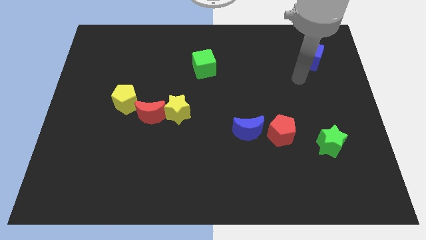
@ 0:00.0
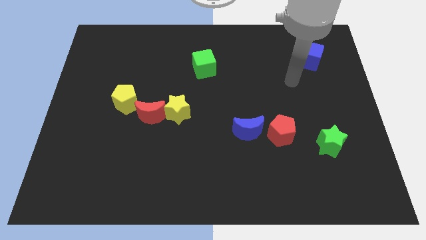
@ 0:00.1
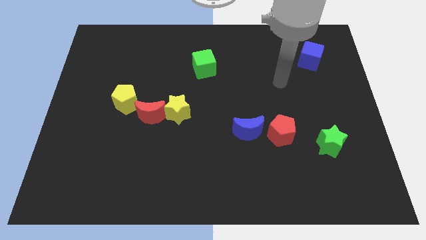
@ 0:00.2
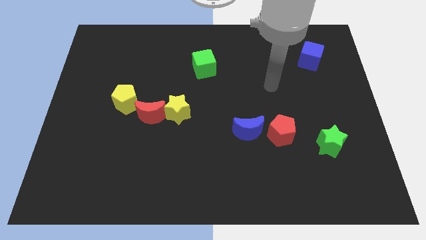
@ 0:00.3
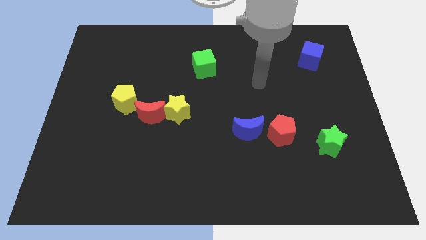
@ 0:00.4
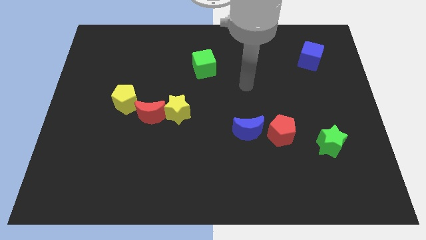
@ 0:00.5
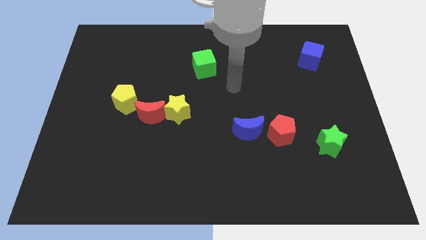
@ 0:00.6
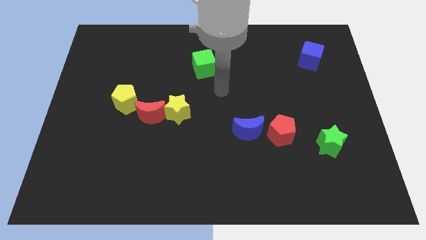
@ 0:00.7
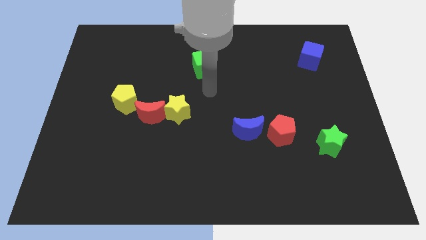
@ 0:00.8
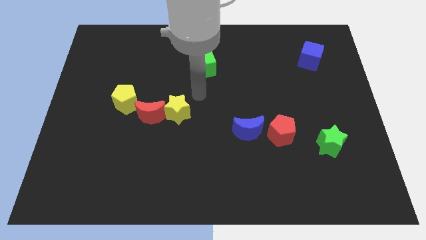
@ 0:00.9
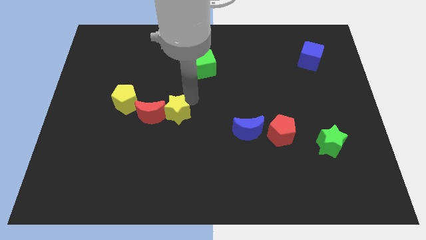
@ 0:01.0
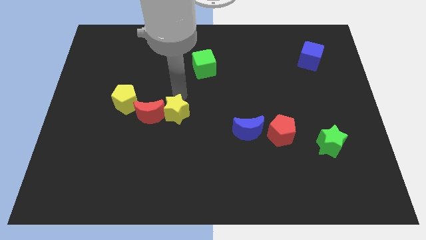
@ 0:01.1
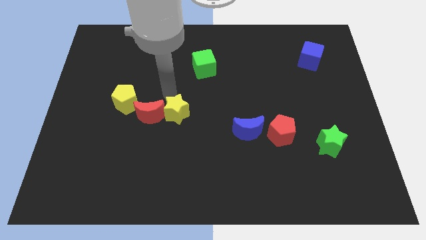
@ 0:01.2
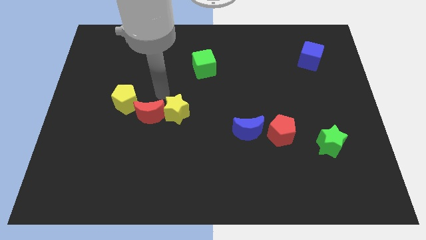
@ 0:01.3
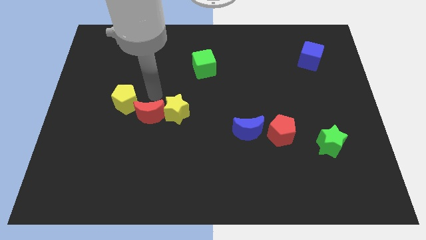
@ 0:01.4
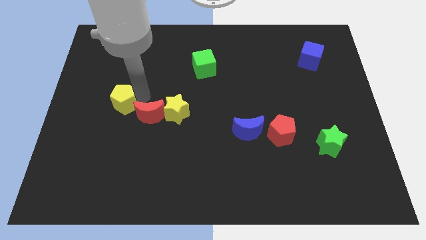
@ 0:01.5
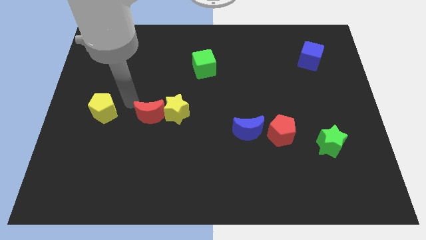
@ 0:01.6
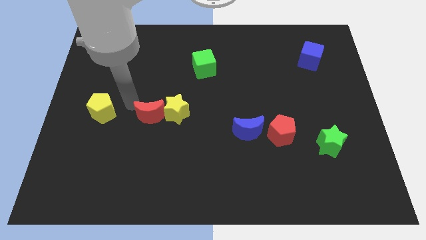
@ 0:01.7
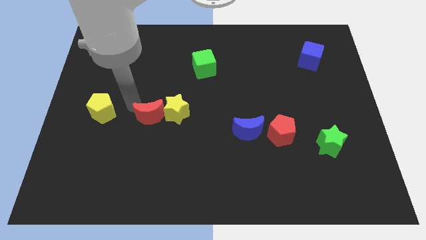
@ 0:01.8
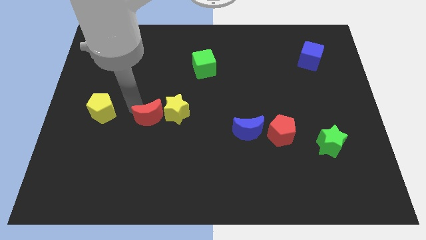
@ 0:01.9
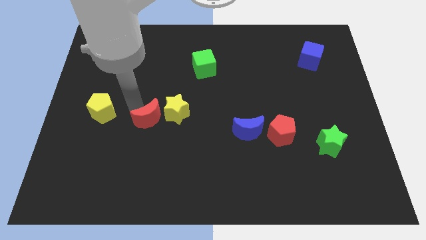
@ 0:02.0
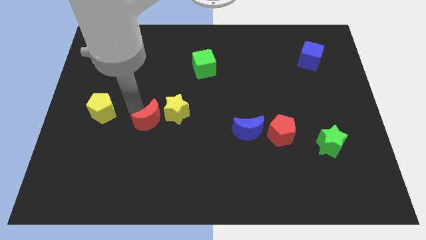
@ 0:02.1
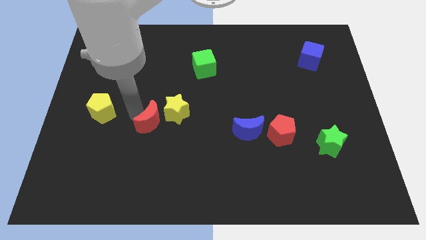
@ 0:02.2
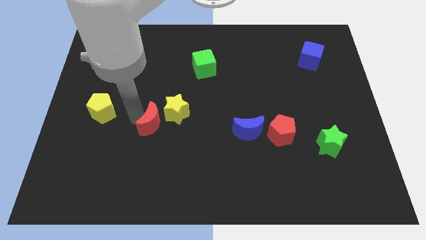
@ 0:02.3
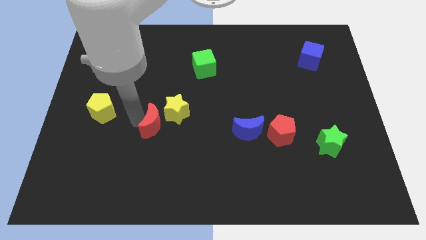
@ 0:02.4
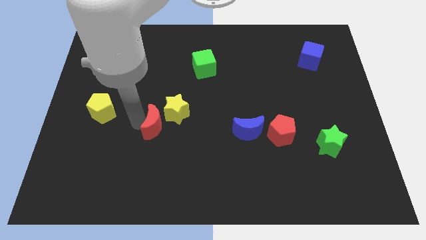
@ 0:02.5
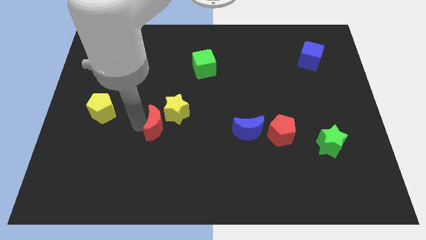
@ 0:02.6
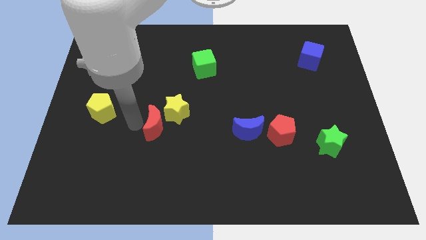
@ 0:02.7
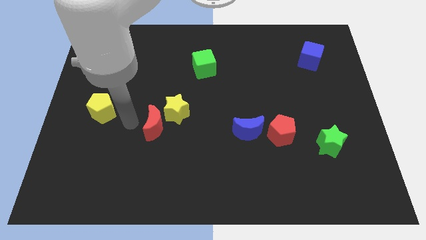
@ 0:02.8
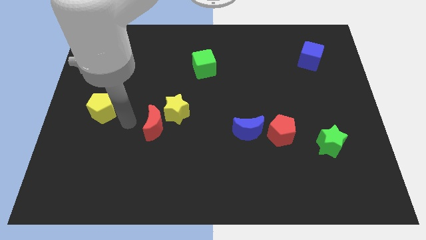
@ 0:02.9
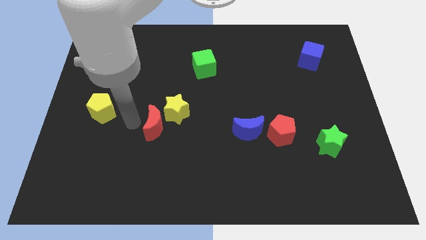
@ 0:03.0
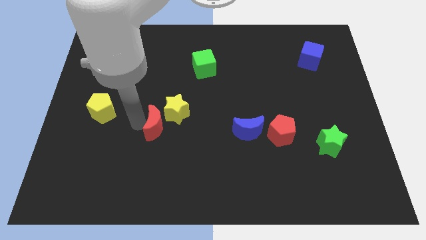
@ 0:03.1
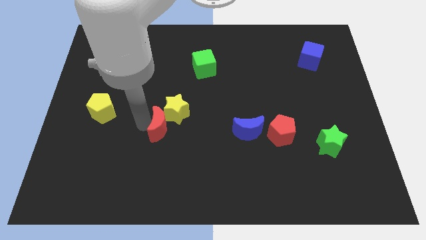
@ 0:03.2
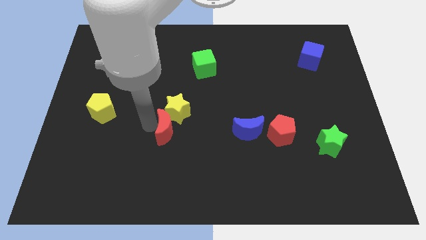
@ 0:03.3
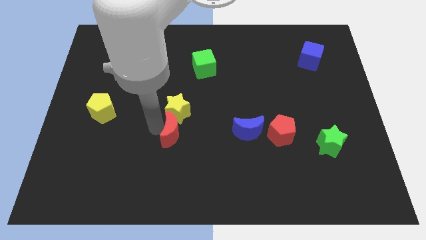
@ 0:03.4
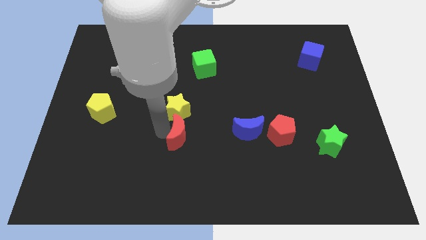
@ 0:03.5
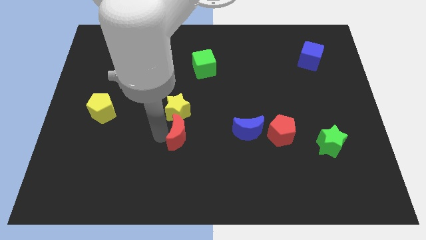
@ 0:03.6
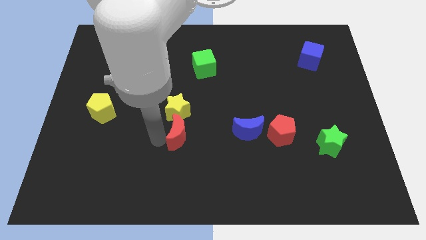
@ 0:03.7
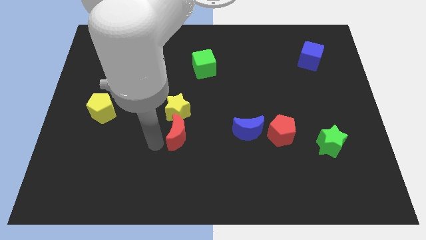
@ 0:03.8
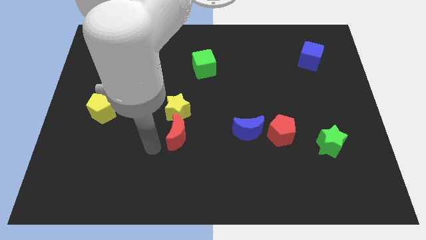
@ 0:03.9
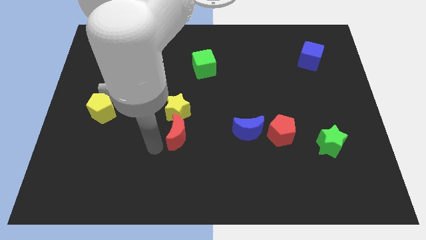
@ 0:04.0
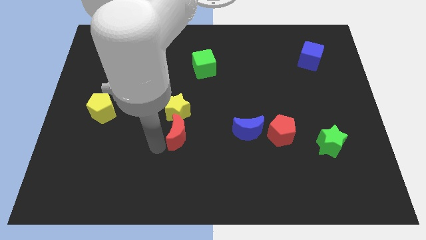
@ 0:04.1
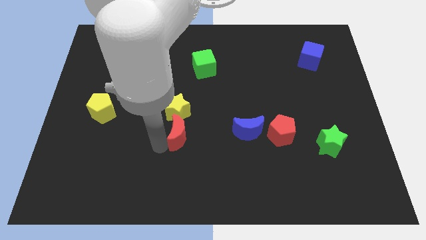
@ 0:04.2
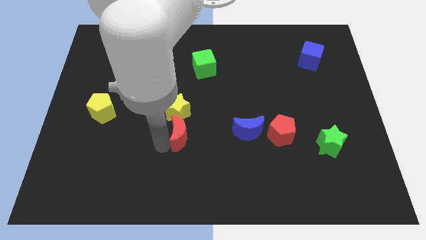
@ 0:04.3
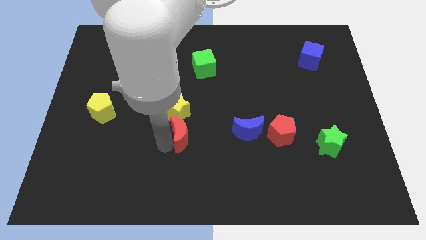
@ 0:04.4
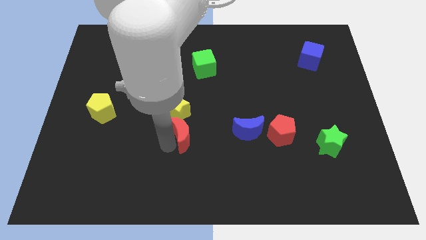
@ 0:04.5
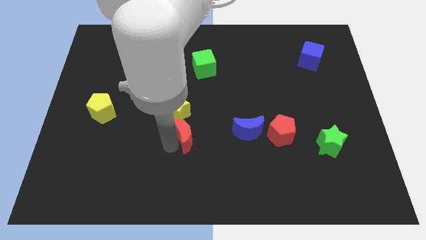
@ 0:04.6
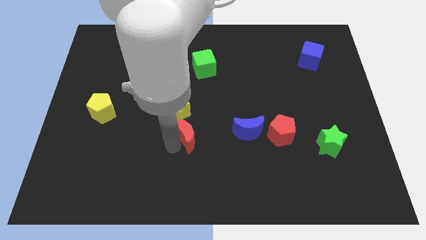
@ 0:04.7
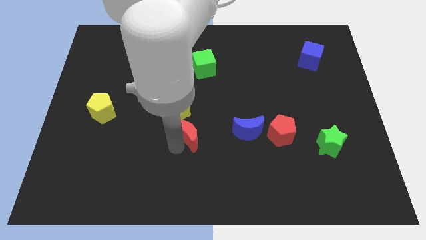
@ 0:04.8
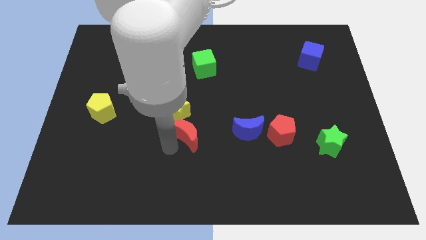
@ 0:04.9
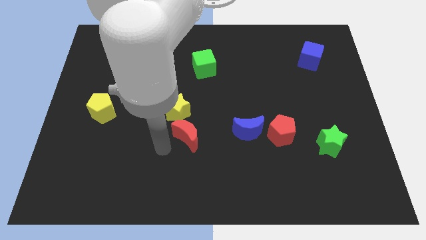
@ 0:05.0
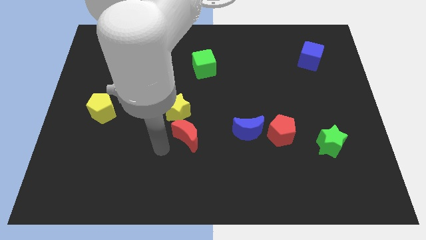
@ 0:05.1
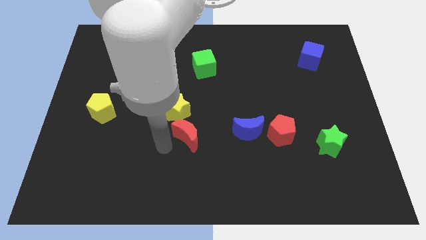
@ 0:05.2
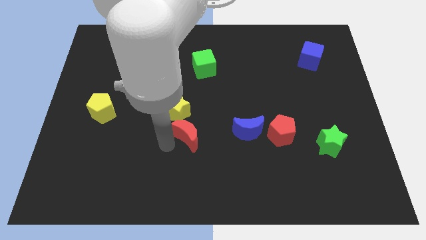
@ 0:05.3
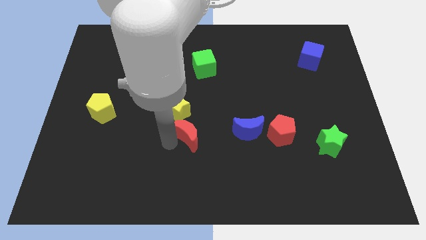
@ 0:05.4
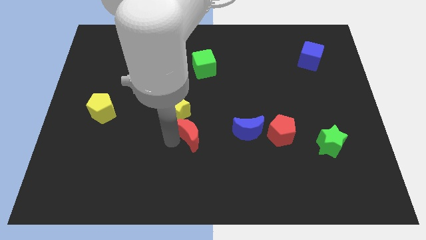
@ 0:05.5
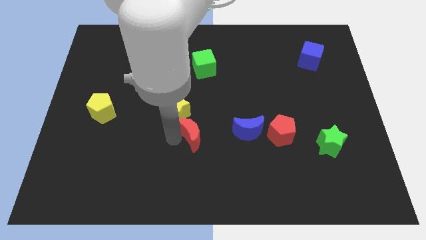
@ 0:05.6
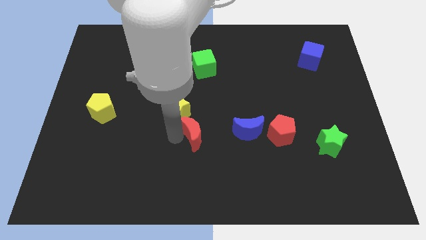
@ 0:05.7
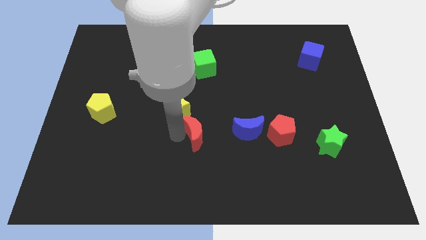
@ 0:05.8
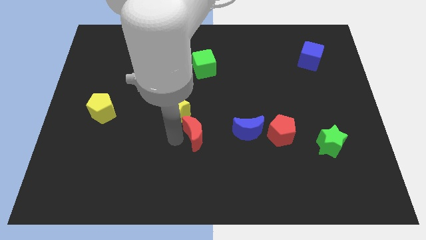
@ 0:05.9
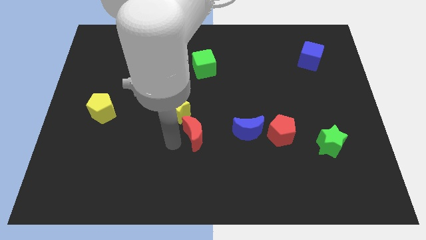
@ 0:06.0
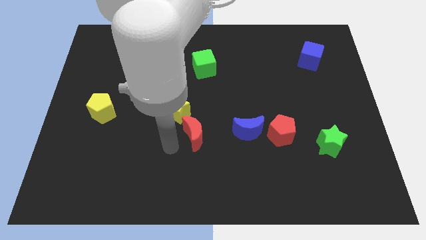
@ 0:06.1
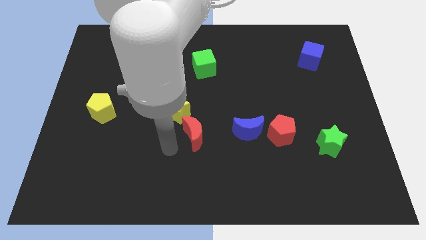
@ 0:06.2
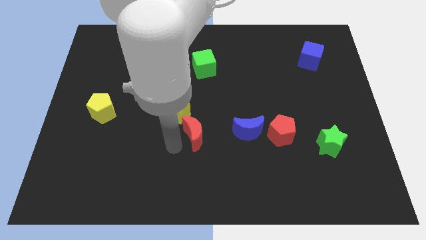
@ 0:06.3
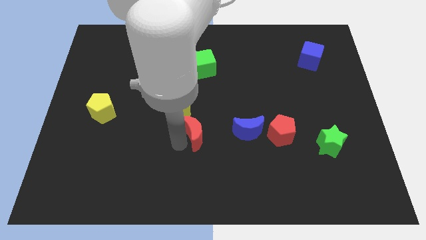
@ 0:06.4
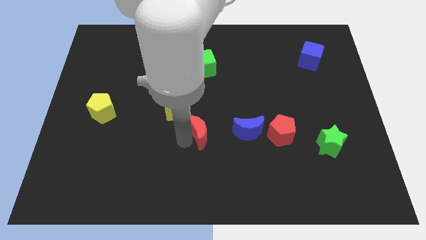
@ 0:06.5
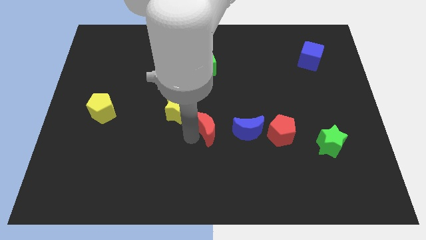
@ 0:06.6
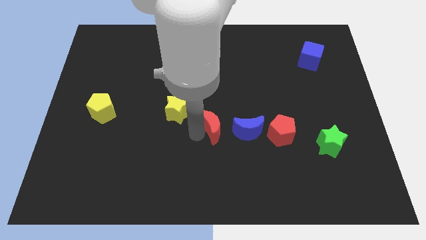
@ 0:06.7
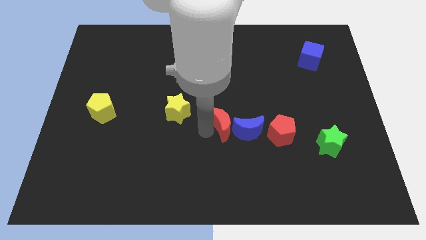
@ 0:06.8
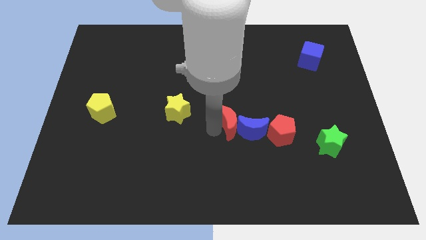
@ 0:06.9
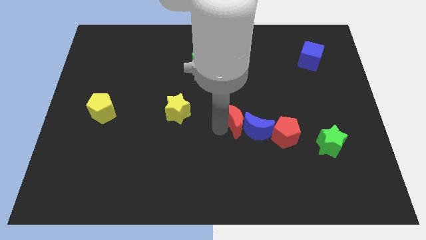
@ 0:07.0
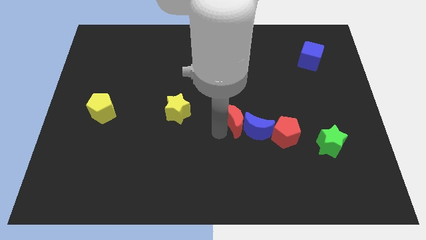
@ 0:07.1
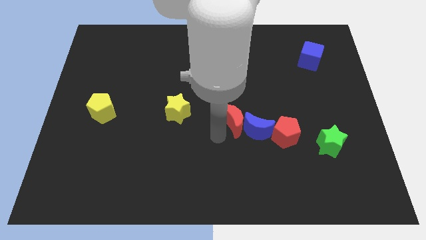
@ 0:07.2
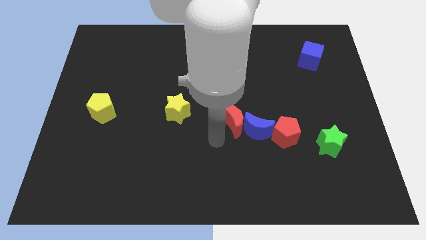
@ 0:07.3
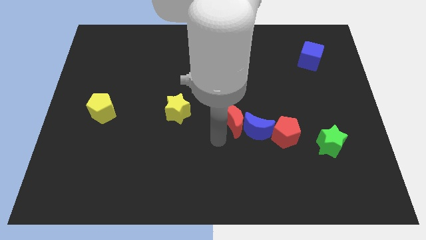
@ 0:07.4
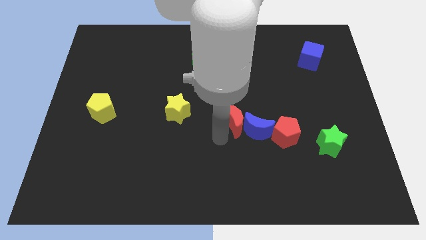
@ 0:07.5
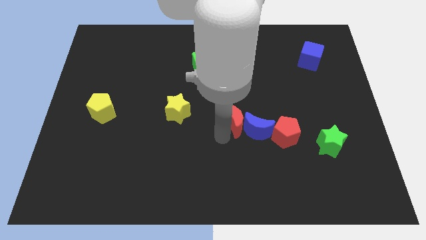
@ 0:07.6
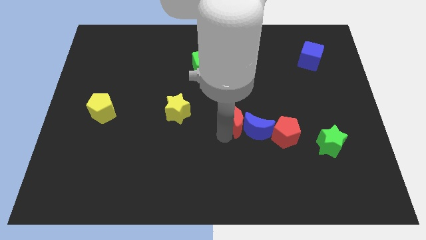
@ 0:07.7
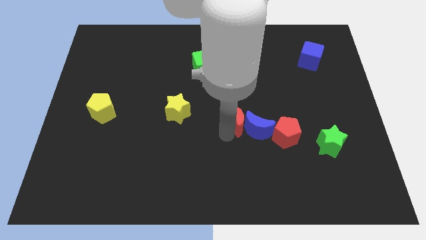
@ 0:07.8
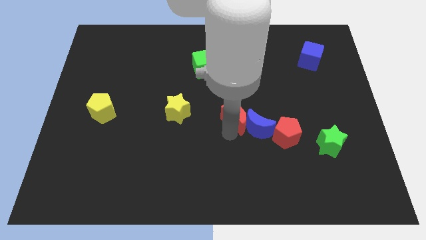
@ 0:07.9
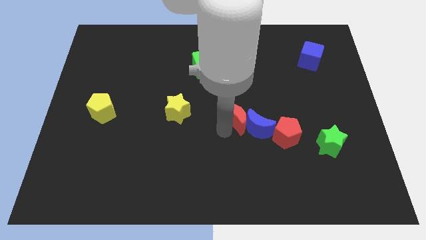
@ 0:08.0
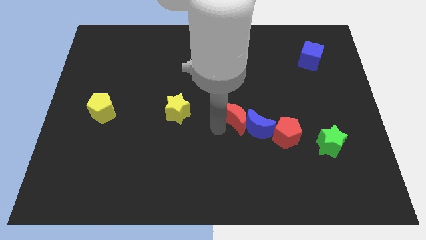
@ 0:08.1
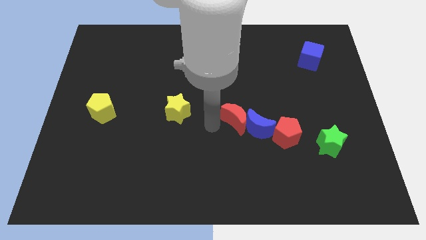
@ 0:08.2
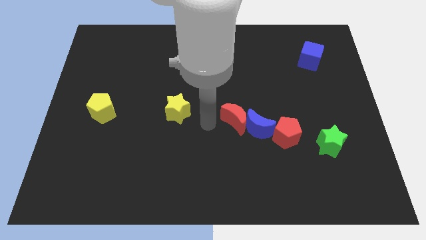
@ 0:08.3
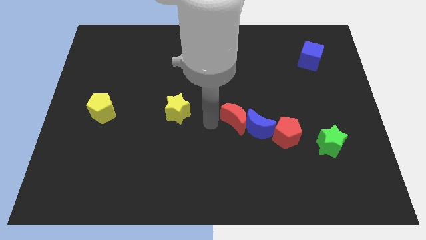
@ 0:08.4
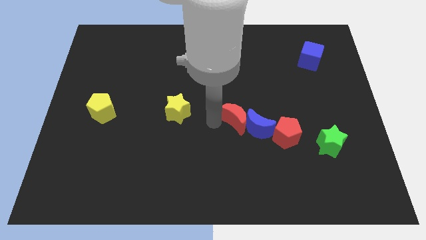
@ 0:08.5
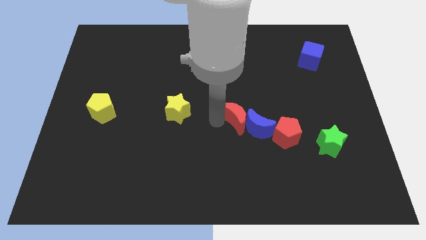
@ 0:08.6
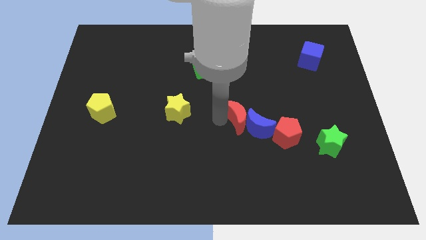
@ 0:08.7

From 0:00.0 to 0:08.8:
move the red moon right
